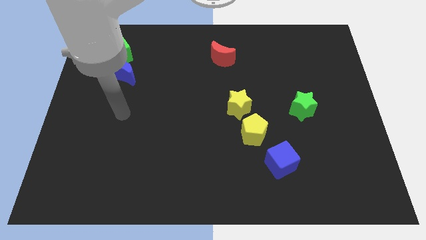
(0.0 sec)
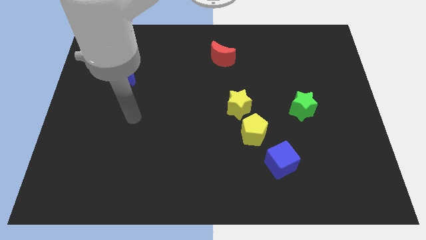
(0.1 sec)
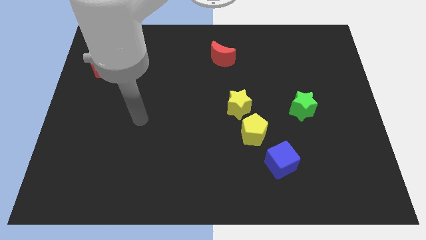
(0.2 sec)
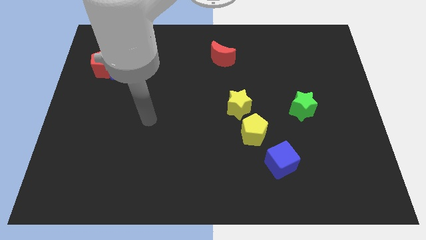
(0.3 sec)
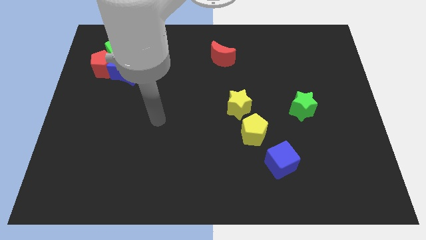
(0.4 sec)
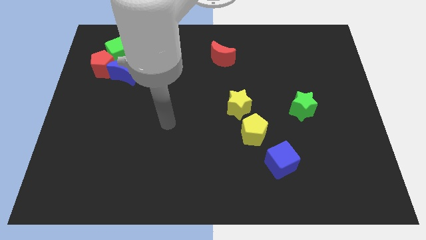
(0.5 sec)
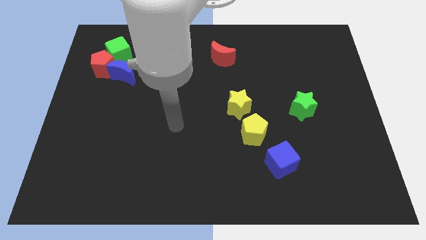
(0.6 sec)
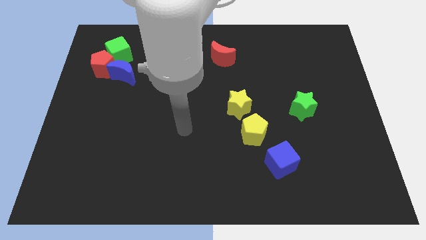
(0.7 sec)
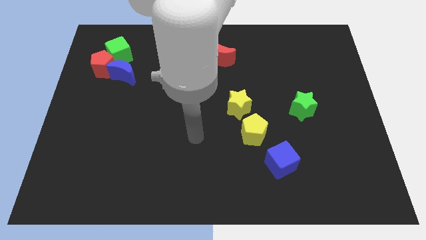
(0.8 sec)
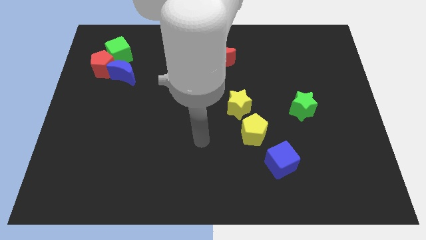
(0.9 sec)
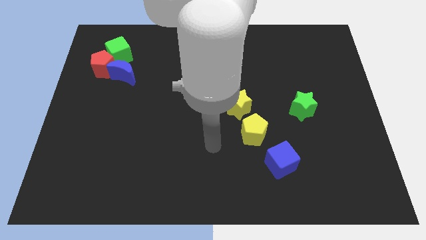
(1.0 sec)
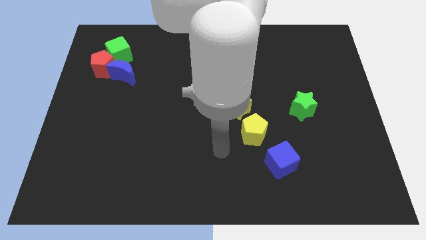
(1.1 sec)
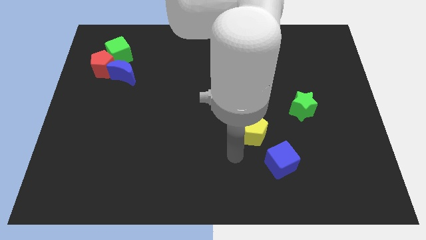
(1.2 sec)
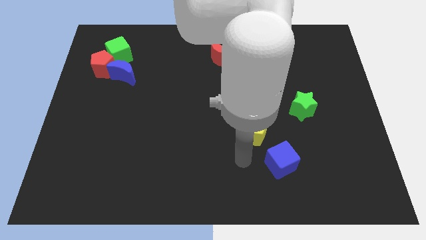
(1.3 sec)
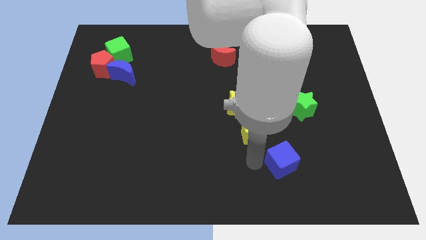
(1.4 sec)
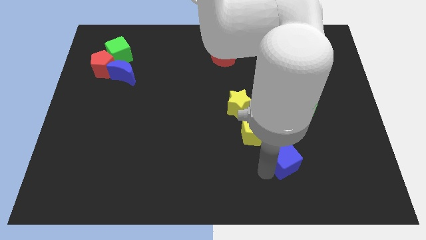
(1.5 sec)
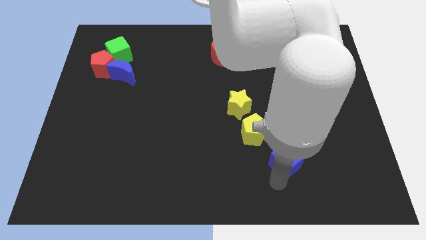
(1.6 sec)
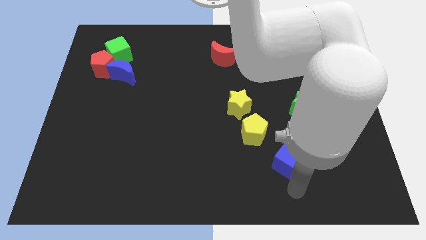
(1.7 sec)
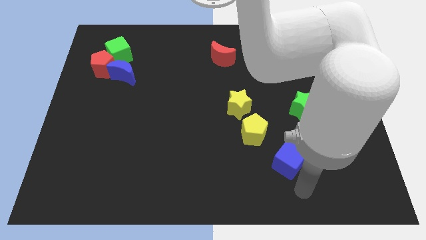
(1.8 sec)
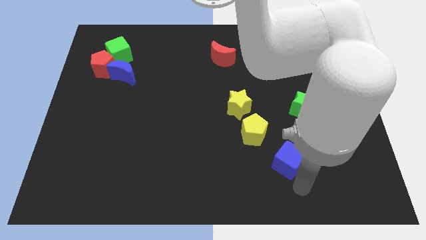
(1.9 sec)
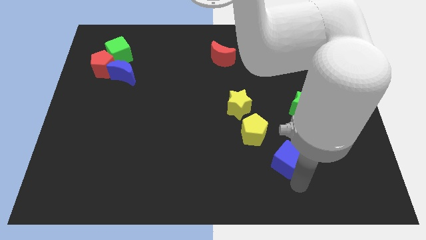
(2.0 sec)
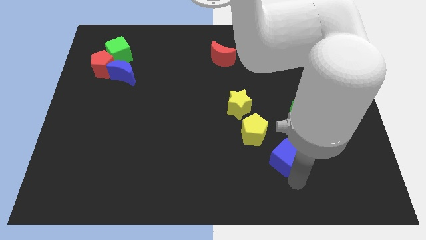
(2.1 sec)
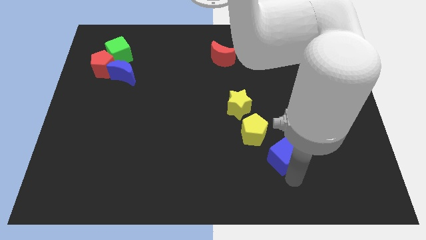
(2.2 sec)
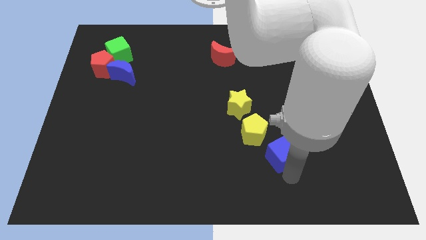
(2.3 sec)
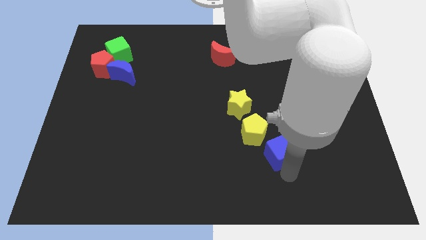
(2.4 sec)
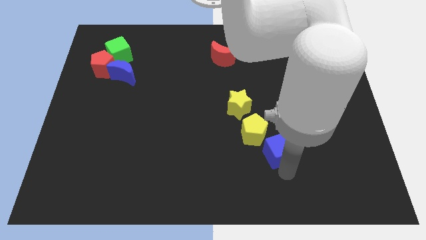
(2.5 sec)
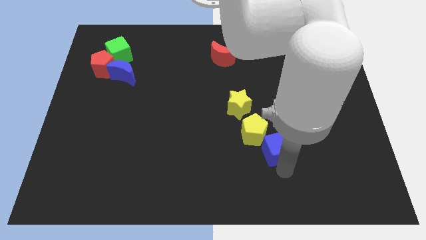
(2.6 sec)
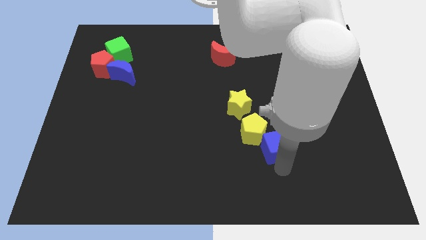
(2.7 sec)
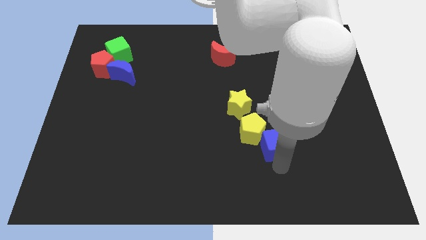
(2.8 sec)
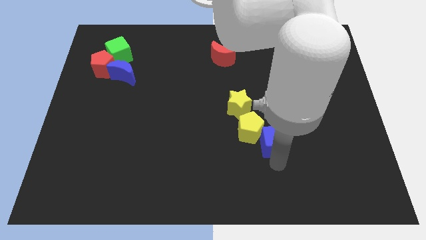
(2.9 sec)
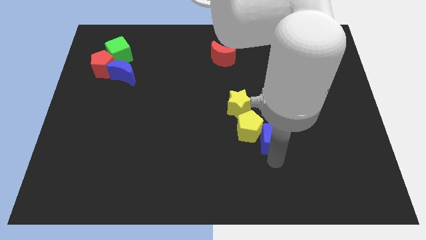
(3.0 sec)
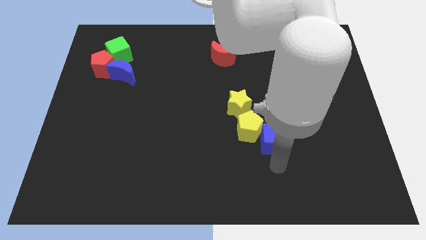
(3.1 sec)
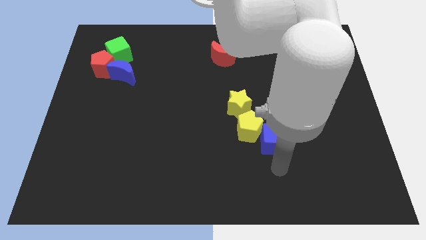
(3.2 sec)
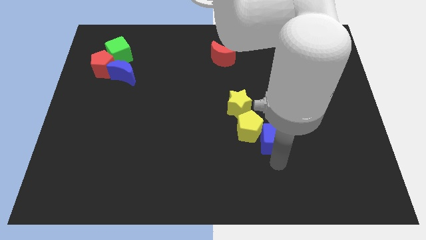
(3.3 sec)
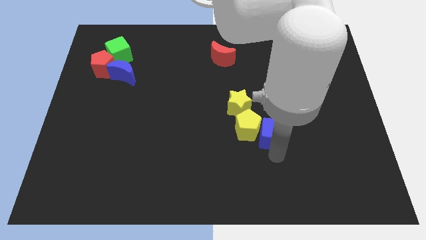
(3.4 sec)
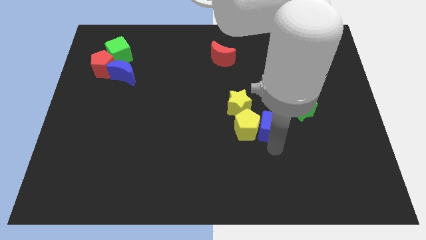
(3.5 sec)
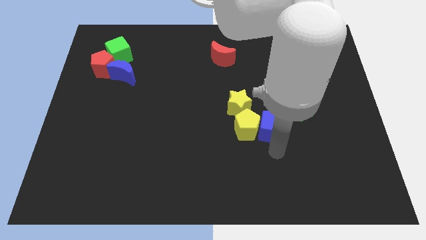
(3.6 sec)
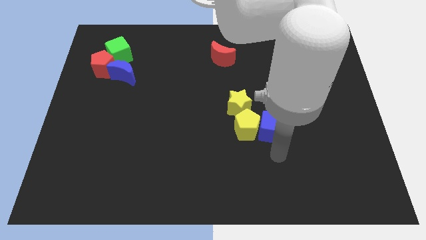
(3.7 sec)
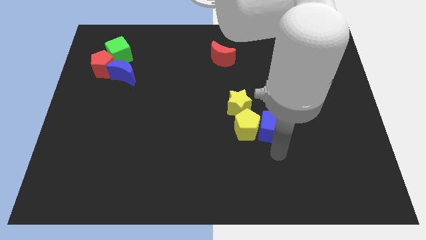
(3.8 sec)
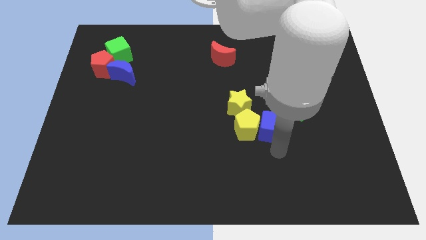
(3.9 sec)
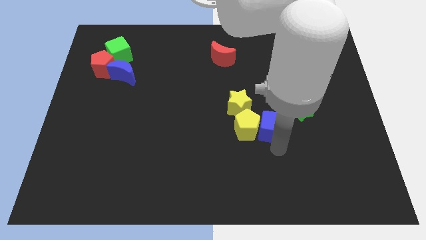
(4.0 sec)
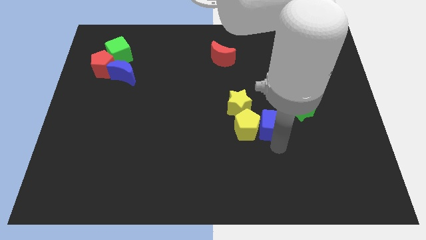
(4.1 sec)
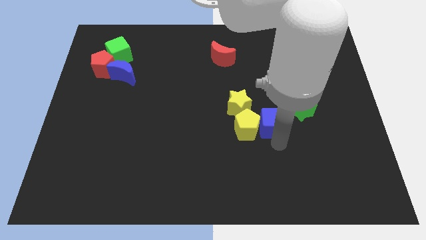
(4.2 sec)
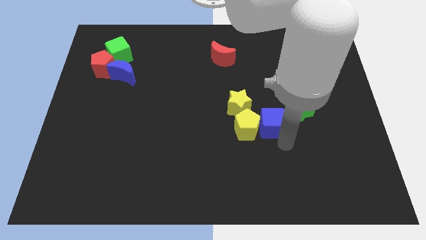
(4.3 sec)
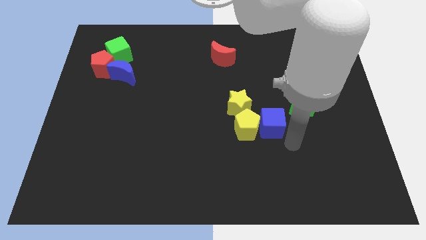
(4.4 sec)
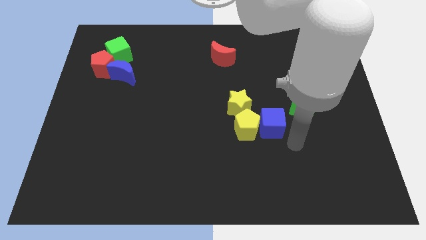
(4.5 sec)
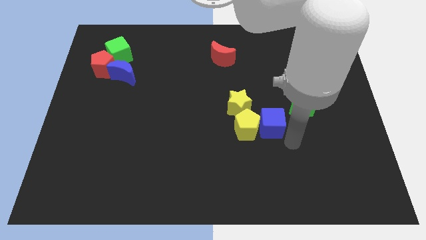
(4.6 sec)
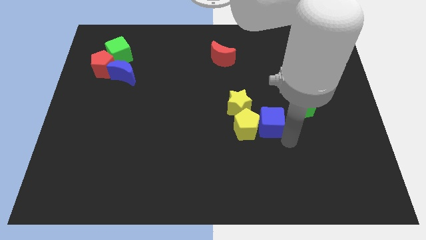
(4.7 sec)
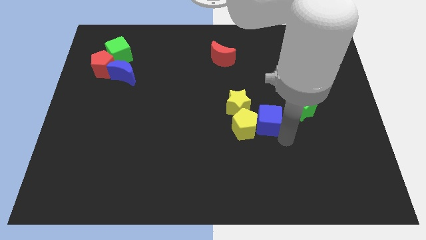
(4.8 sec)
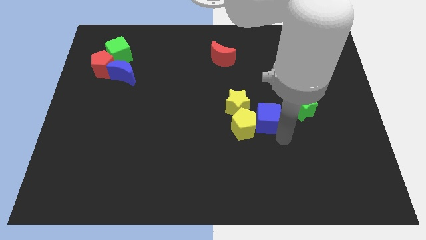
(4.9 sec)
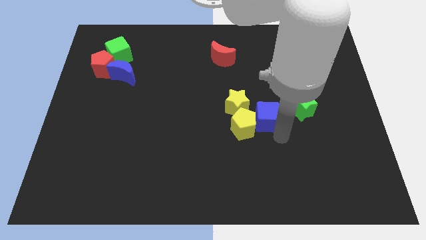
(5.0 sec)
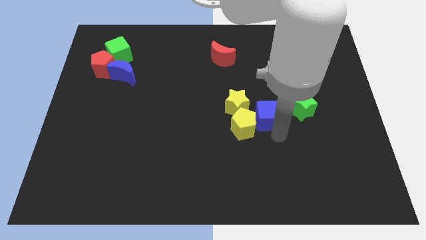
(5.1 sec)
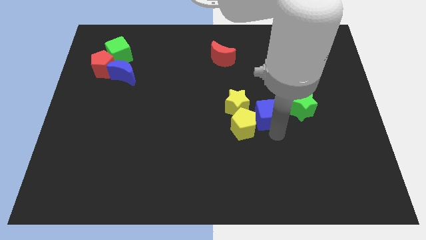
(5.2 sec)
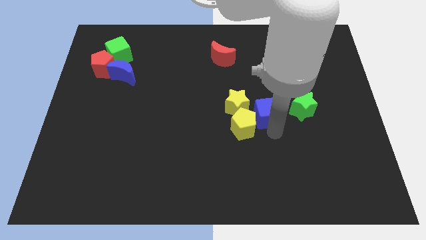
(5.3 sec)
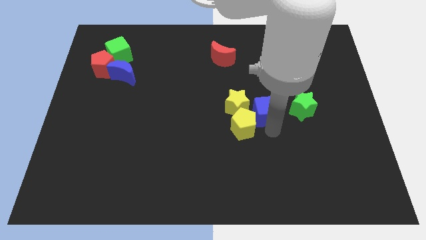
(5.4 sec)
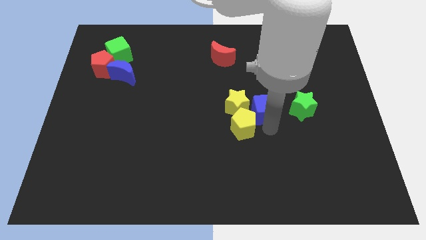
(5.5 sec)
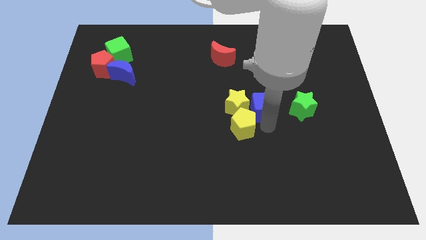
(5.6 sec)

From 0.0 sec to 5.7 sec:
slide the blue cube to the yellow star

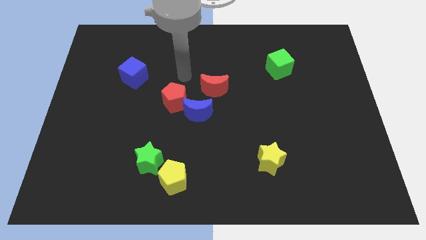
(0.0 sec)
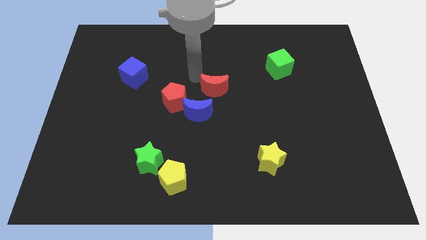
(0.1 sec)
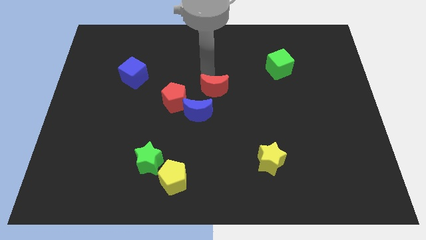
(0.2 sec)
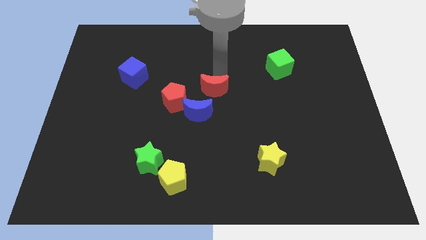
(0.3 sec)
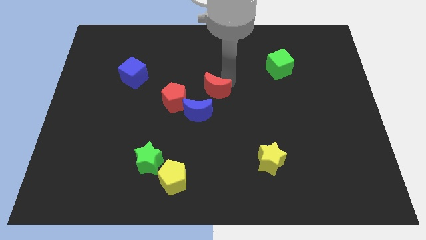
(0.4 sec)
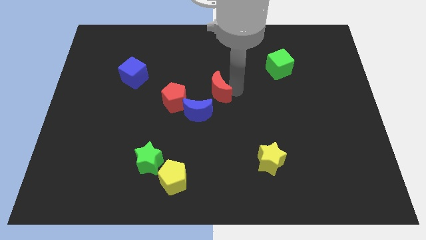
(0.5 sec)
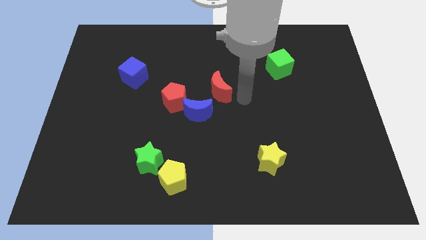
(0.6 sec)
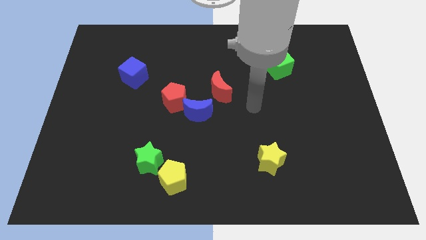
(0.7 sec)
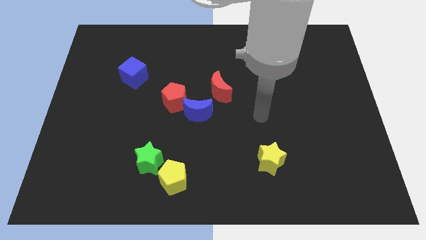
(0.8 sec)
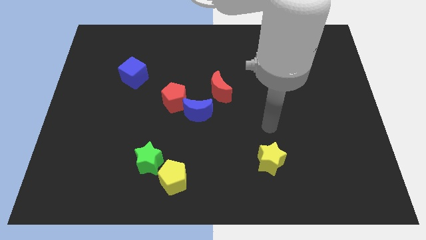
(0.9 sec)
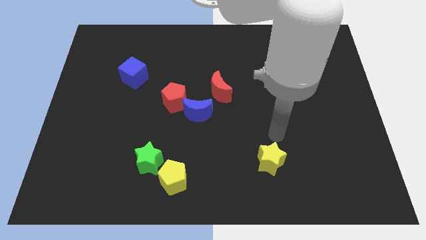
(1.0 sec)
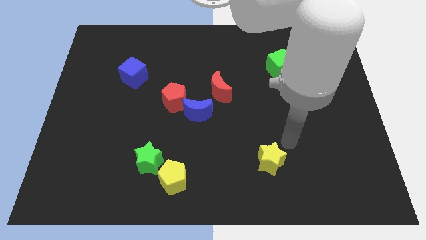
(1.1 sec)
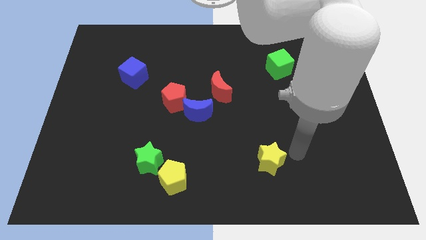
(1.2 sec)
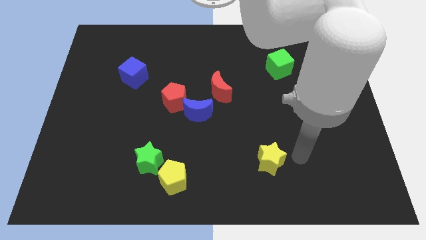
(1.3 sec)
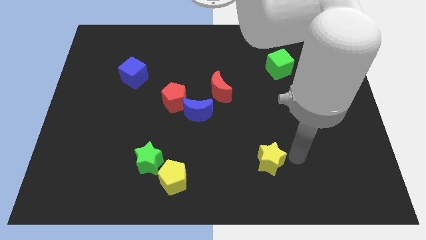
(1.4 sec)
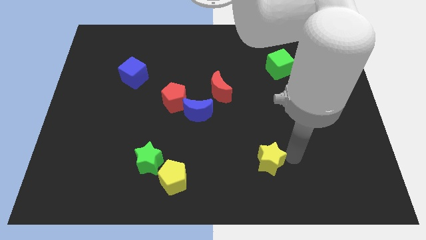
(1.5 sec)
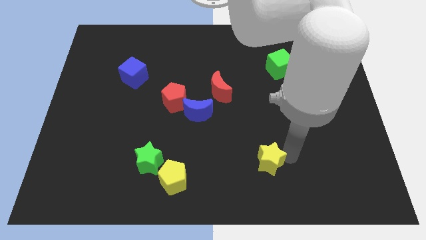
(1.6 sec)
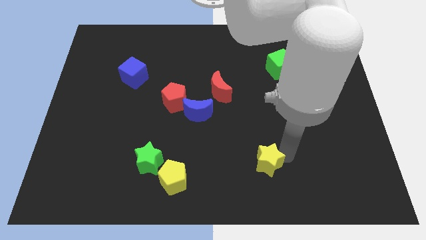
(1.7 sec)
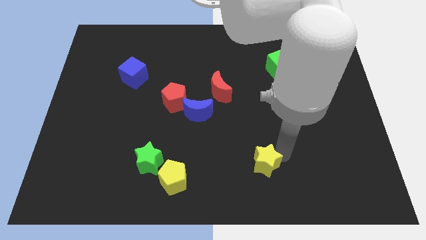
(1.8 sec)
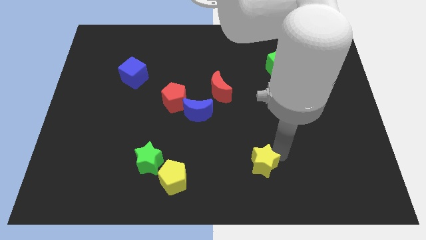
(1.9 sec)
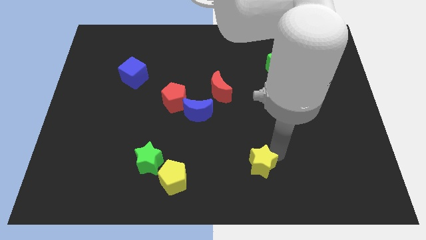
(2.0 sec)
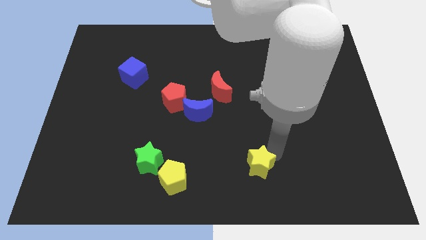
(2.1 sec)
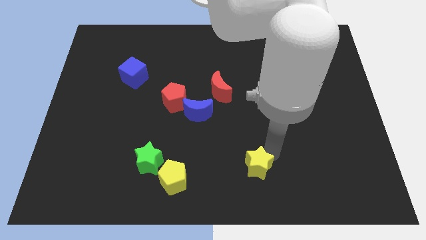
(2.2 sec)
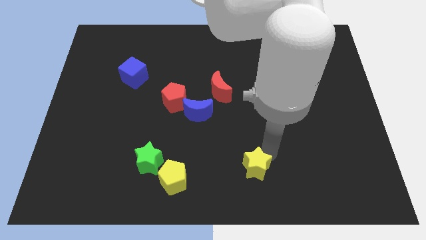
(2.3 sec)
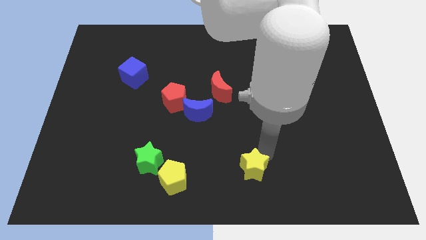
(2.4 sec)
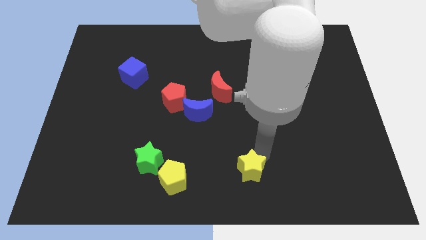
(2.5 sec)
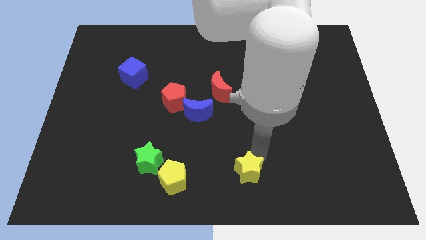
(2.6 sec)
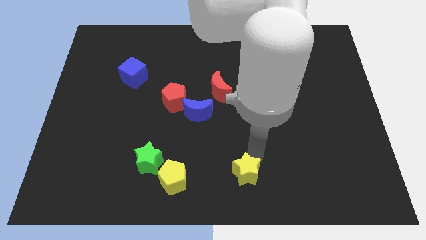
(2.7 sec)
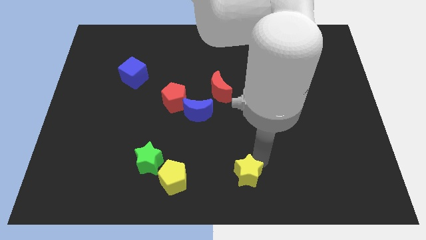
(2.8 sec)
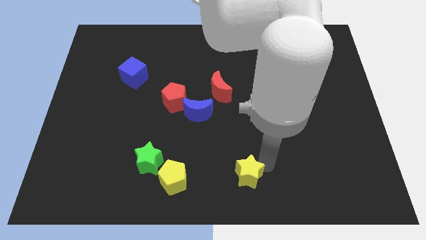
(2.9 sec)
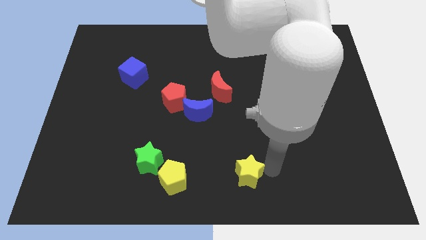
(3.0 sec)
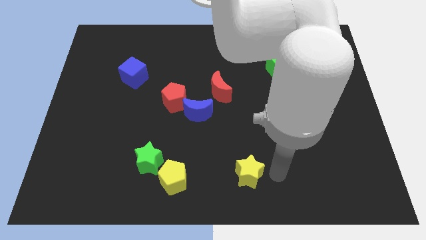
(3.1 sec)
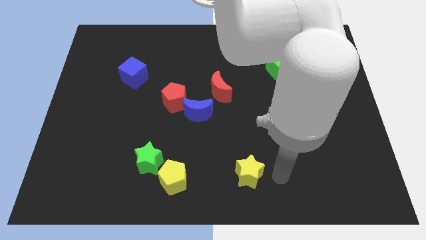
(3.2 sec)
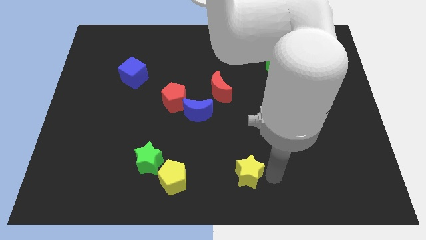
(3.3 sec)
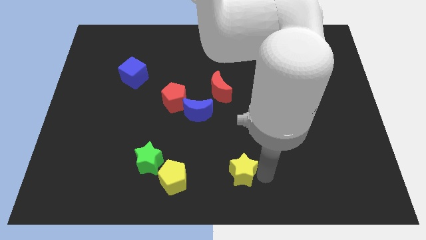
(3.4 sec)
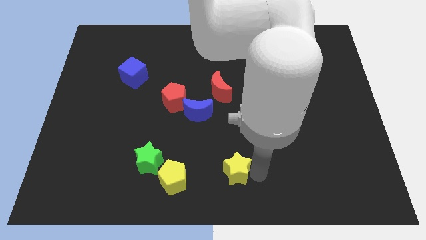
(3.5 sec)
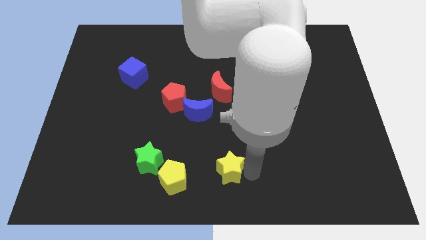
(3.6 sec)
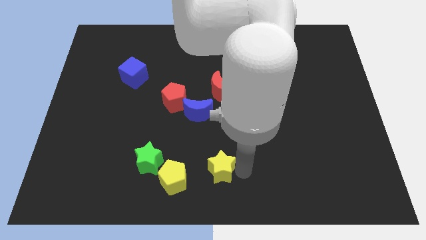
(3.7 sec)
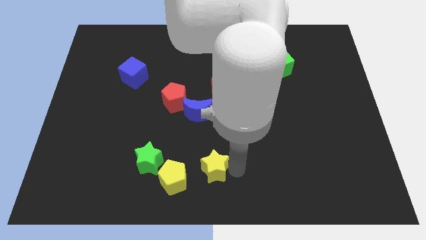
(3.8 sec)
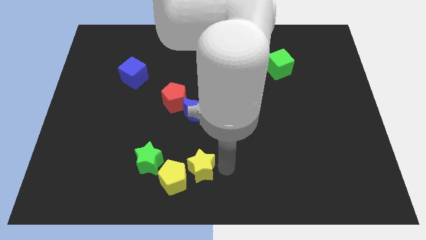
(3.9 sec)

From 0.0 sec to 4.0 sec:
slide the yellow star next to the yellow pentagon
